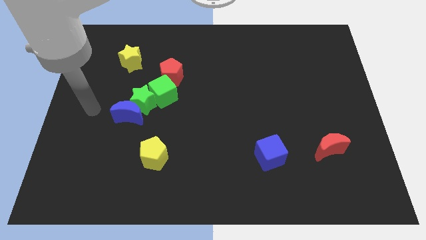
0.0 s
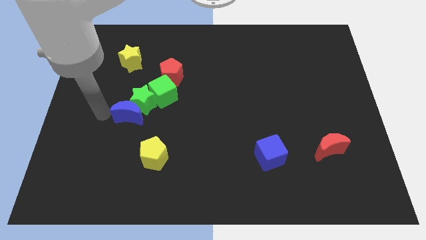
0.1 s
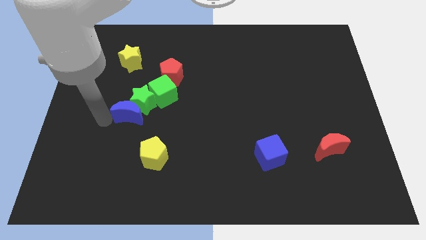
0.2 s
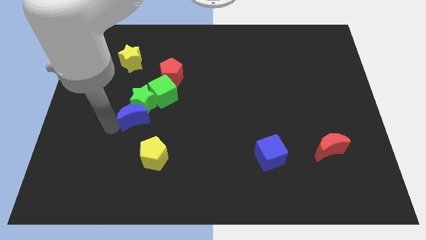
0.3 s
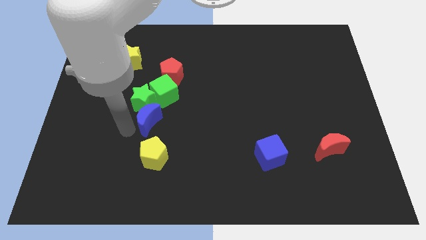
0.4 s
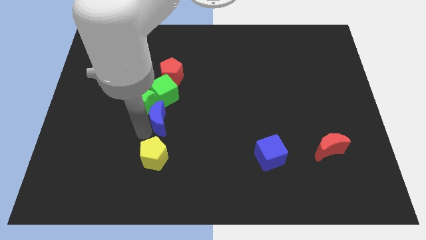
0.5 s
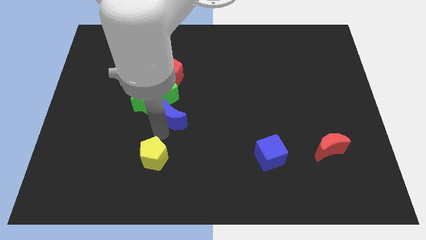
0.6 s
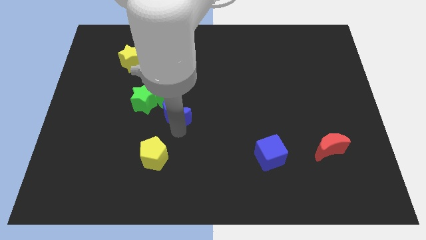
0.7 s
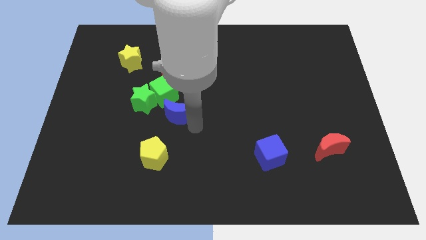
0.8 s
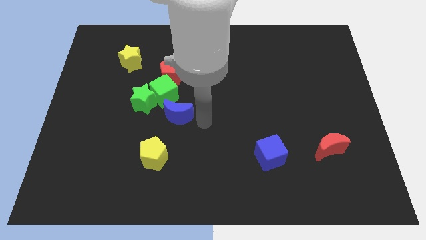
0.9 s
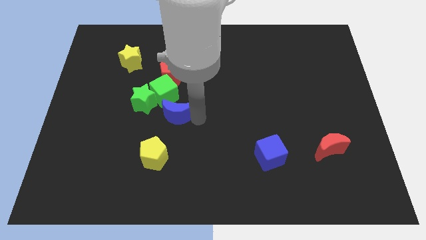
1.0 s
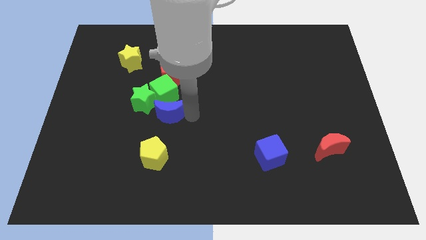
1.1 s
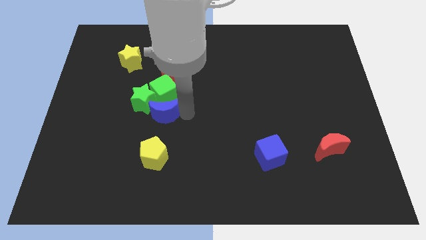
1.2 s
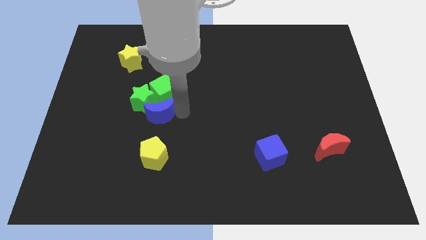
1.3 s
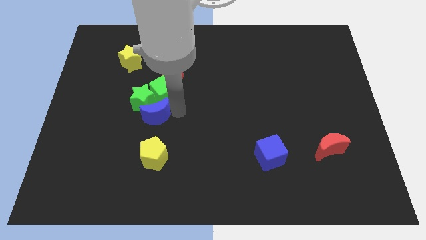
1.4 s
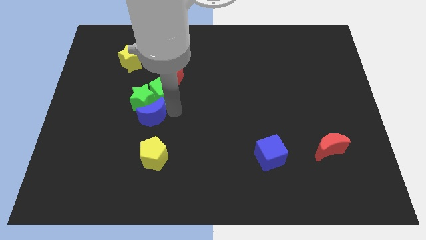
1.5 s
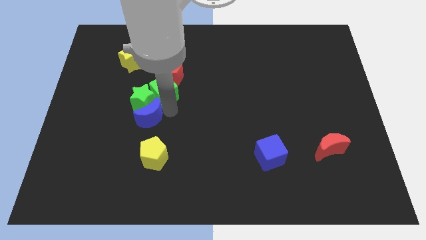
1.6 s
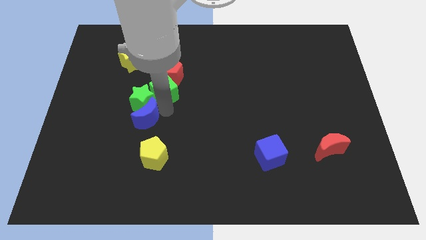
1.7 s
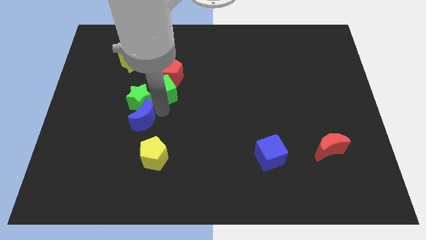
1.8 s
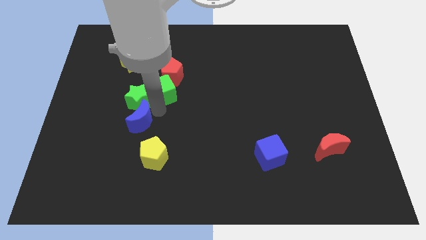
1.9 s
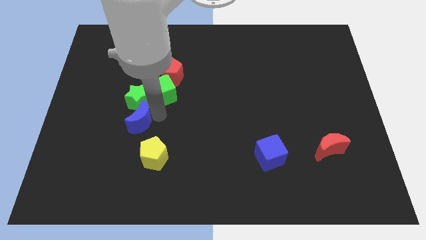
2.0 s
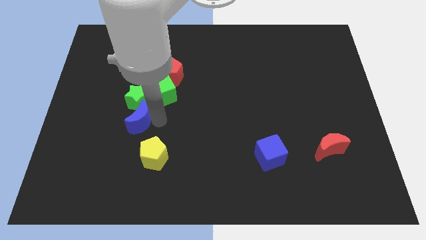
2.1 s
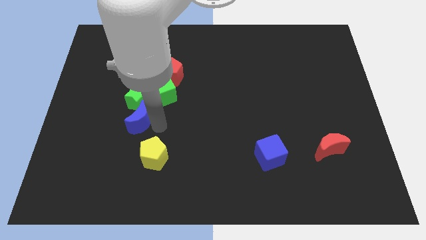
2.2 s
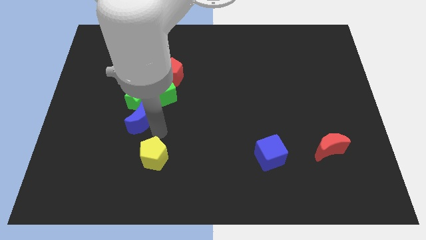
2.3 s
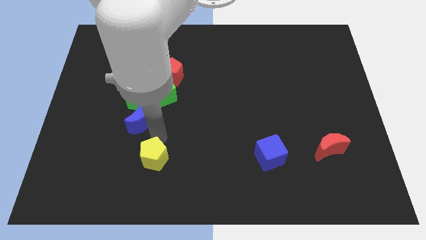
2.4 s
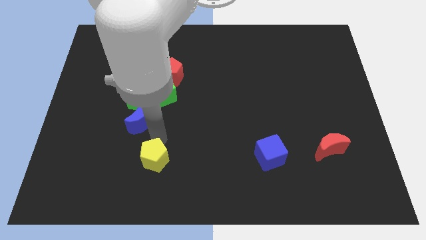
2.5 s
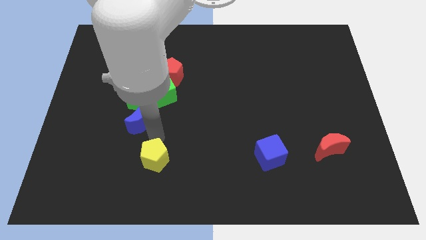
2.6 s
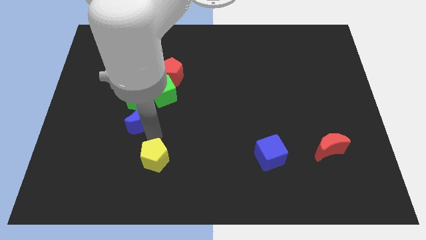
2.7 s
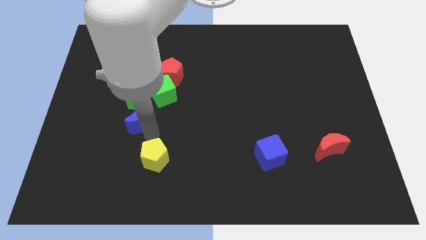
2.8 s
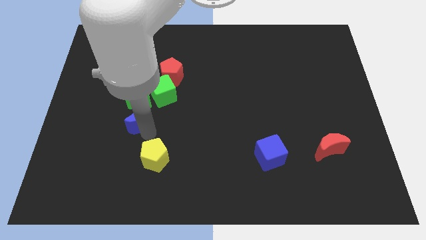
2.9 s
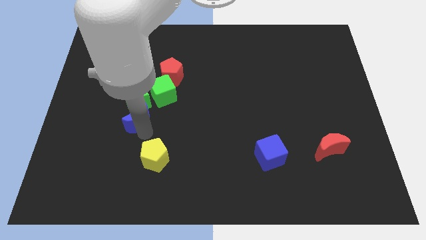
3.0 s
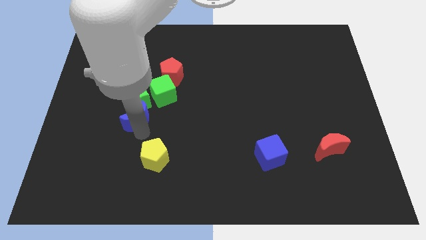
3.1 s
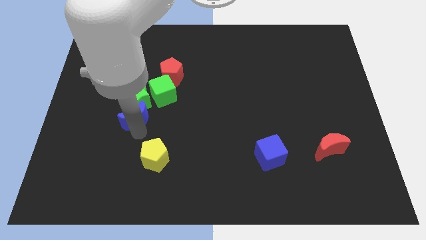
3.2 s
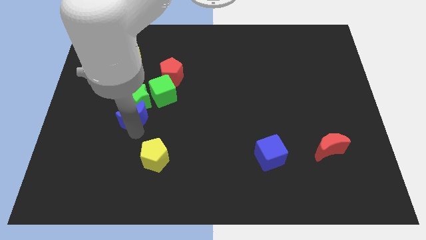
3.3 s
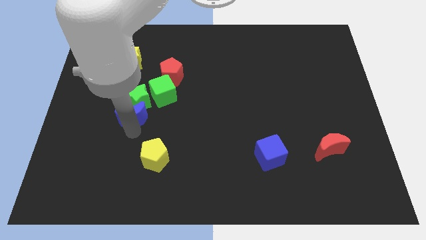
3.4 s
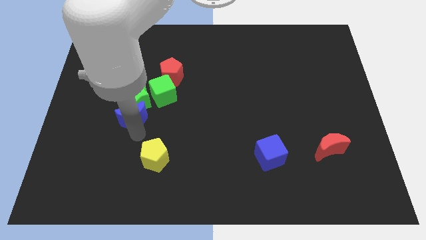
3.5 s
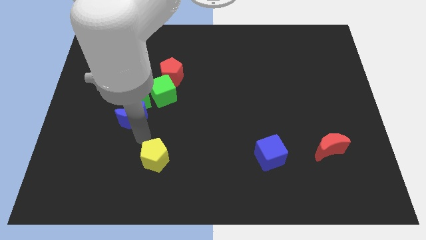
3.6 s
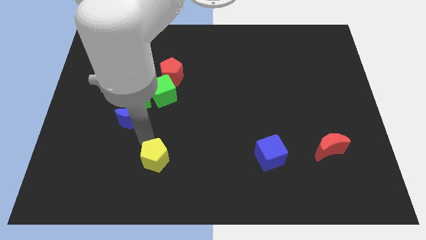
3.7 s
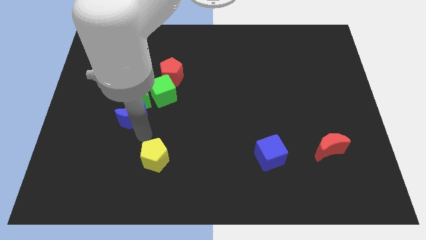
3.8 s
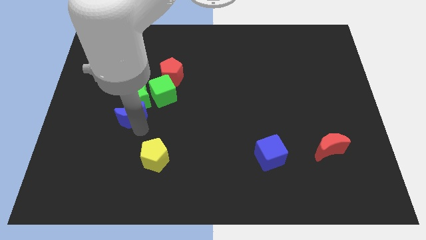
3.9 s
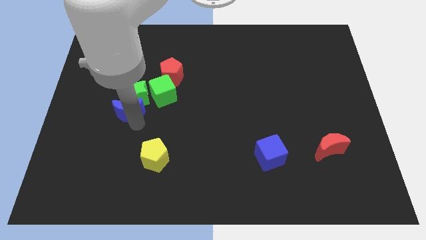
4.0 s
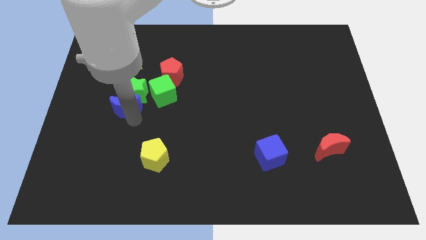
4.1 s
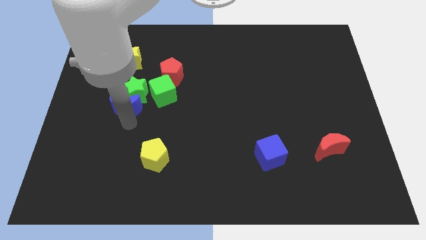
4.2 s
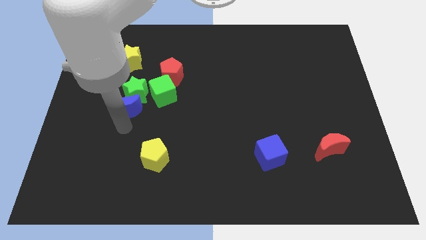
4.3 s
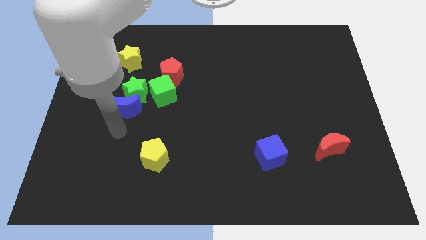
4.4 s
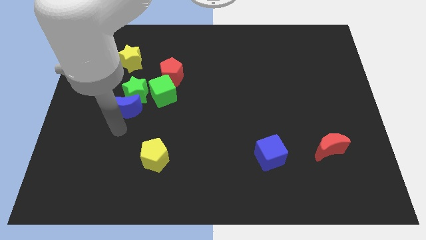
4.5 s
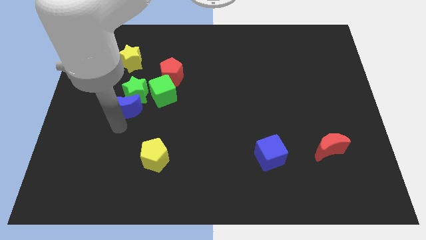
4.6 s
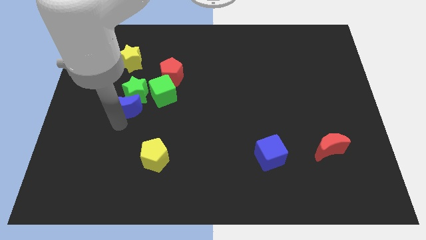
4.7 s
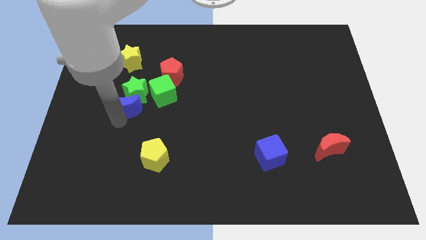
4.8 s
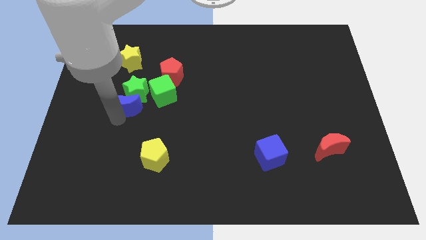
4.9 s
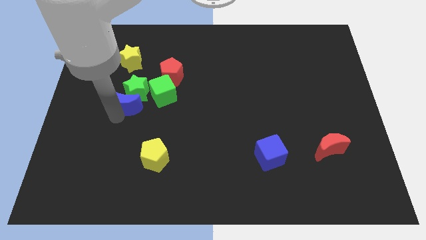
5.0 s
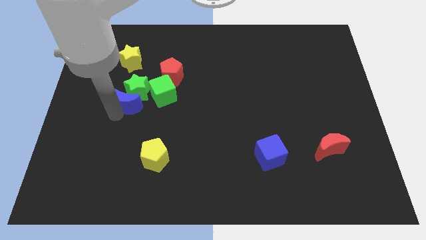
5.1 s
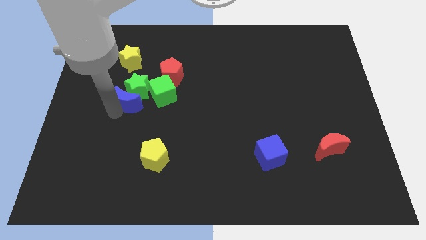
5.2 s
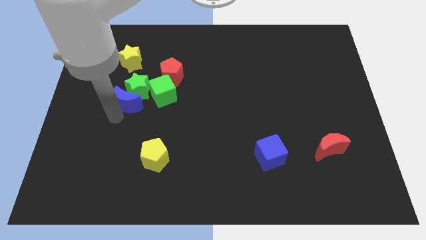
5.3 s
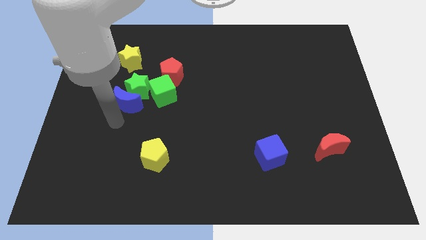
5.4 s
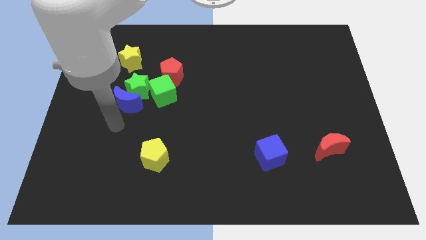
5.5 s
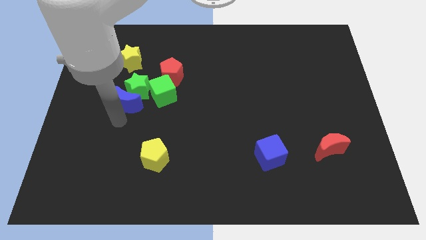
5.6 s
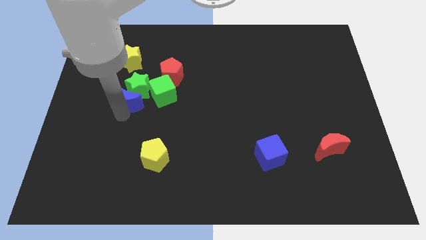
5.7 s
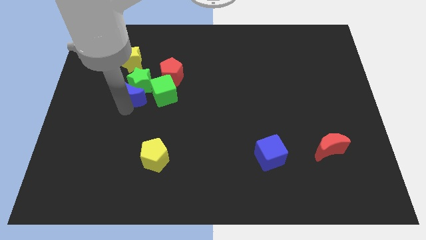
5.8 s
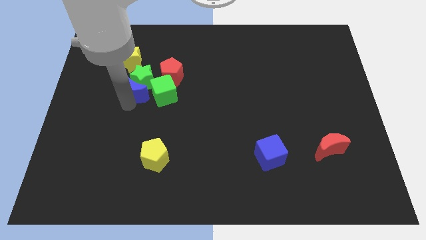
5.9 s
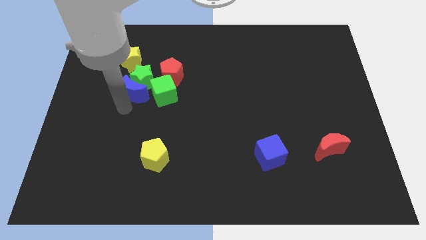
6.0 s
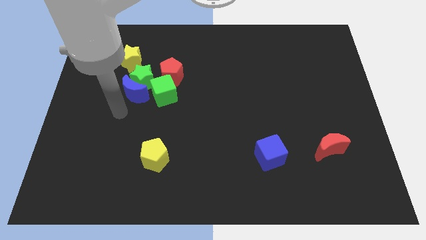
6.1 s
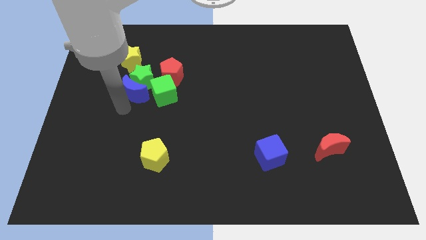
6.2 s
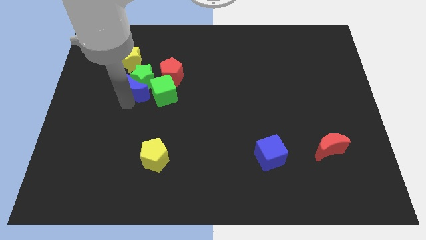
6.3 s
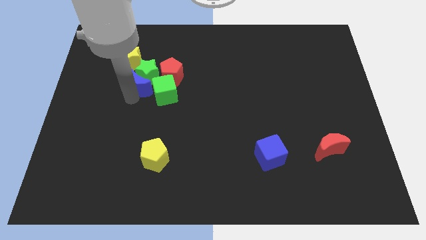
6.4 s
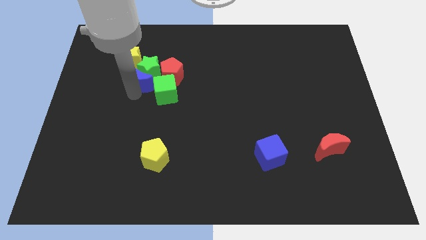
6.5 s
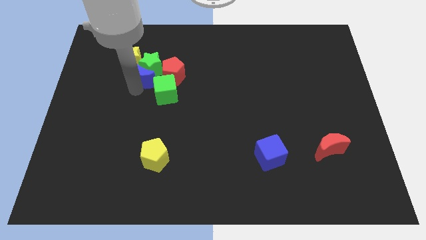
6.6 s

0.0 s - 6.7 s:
slightly move the blue moon diagonally upwards and to the right

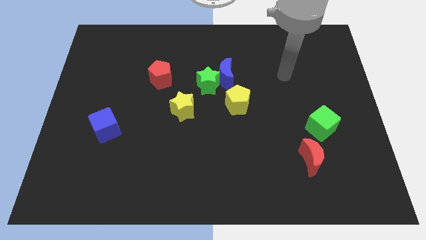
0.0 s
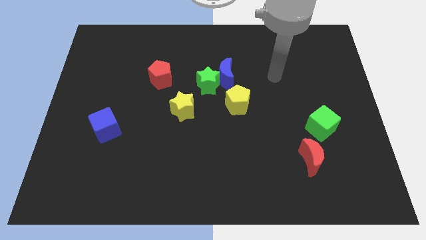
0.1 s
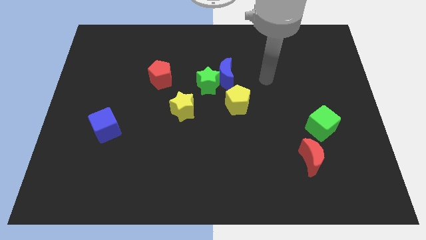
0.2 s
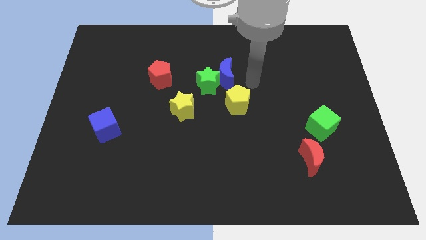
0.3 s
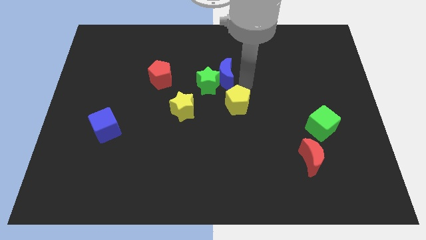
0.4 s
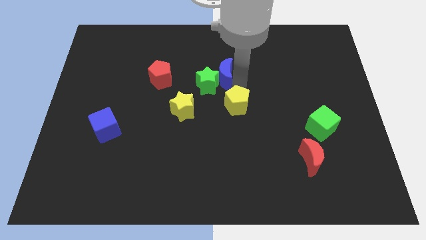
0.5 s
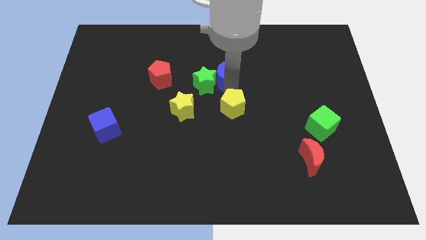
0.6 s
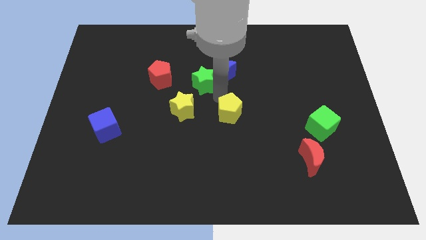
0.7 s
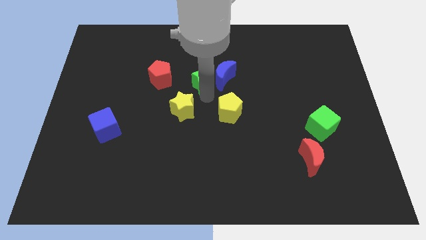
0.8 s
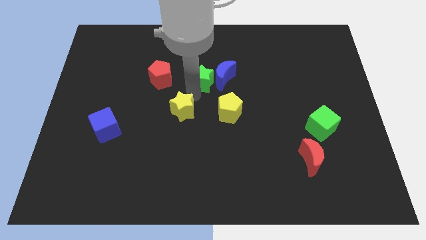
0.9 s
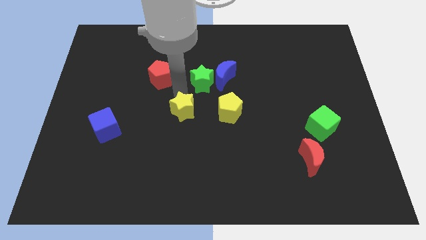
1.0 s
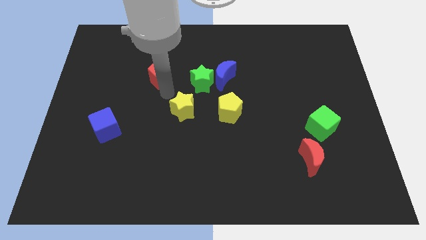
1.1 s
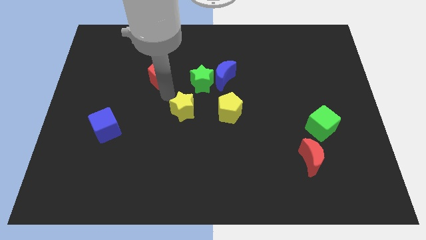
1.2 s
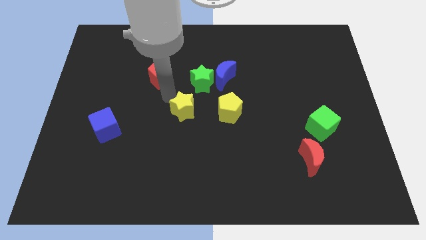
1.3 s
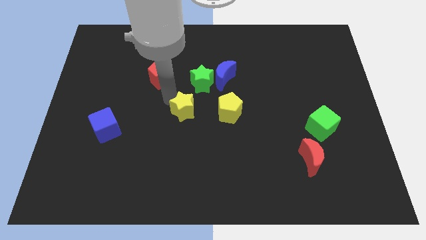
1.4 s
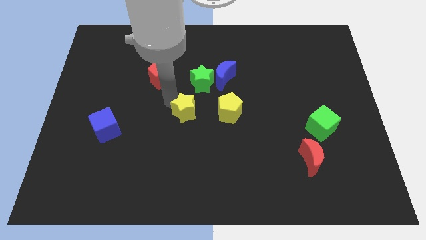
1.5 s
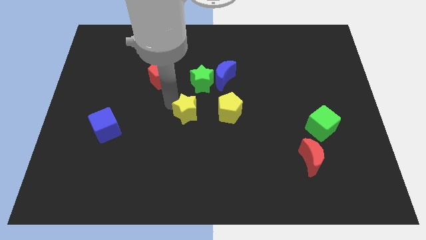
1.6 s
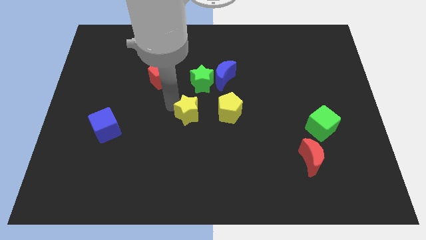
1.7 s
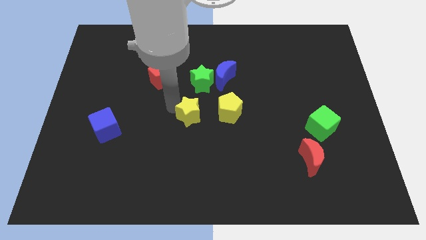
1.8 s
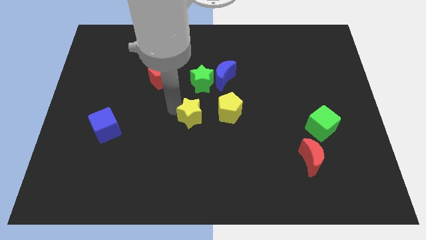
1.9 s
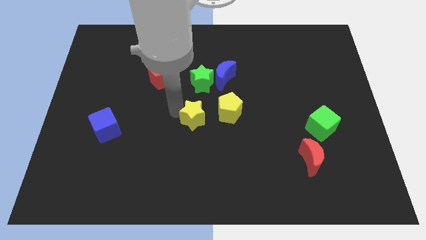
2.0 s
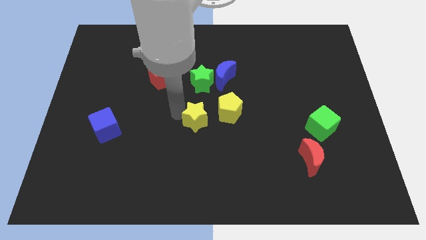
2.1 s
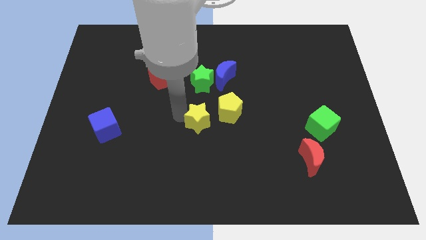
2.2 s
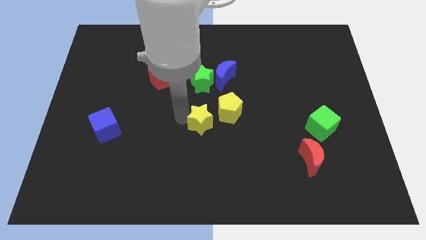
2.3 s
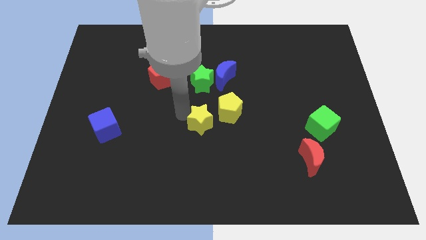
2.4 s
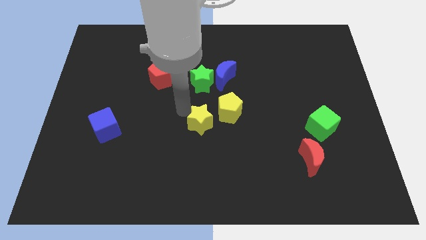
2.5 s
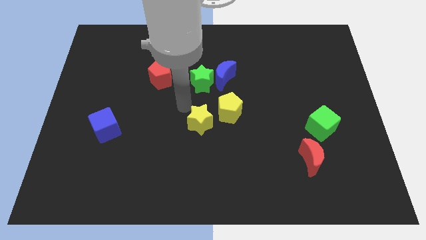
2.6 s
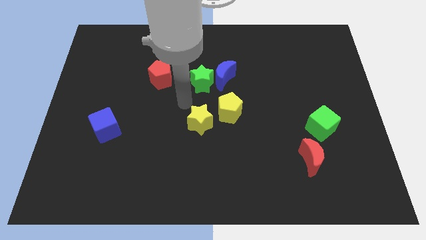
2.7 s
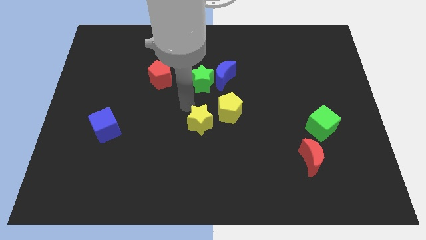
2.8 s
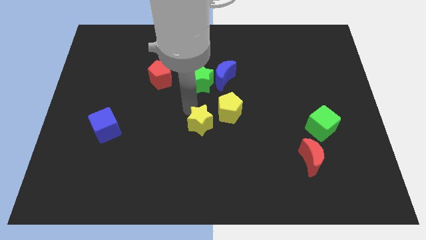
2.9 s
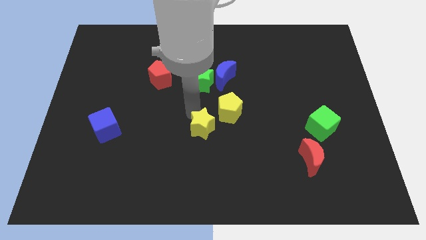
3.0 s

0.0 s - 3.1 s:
push the yellow star a bit down and right
